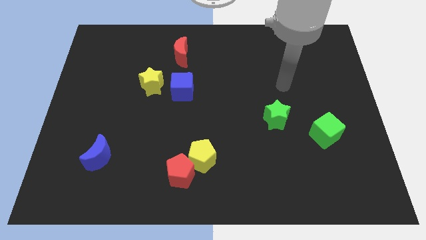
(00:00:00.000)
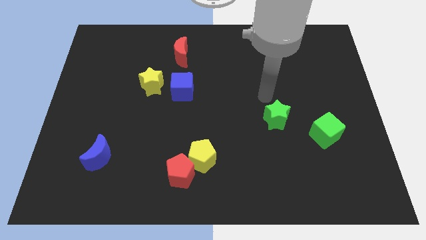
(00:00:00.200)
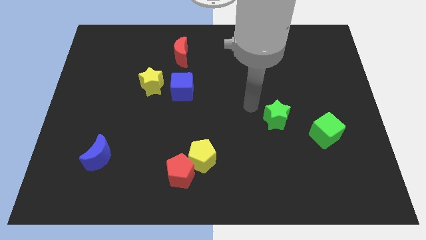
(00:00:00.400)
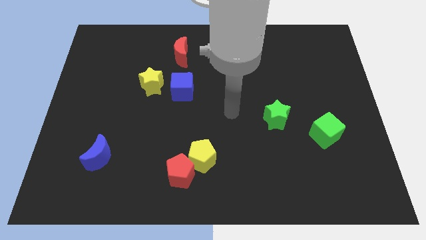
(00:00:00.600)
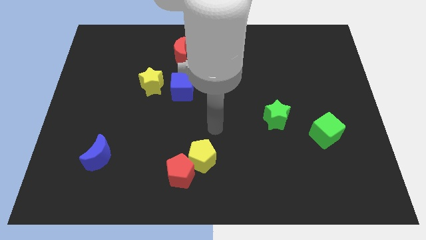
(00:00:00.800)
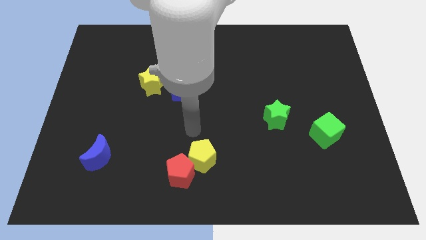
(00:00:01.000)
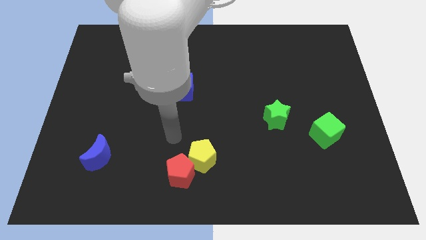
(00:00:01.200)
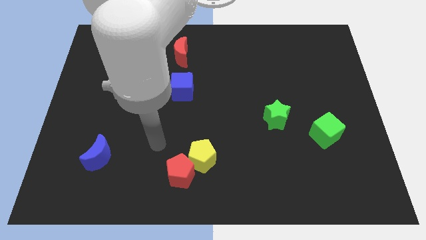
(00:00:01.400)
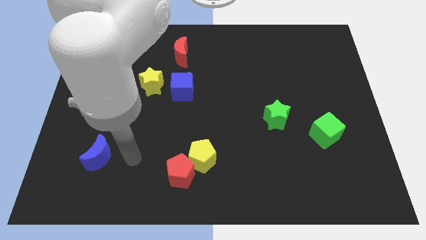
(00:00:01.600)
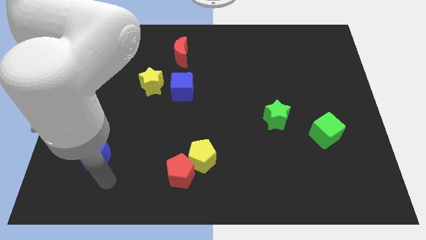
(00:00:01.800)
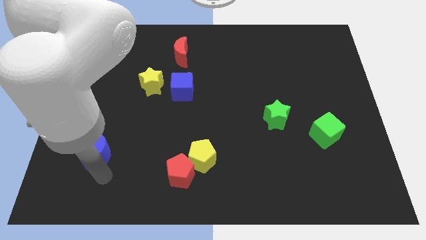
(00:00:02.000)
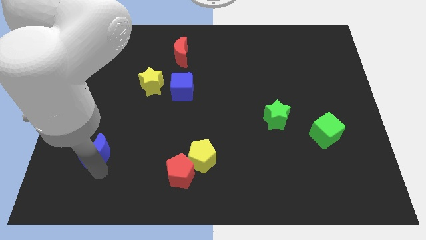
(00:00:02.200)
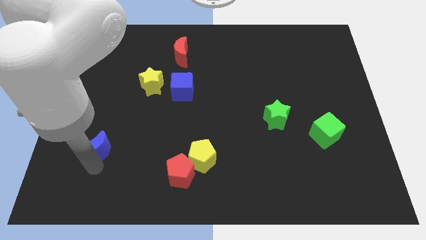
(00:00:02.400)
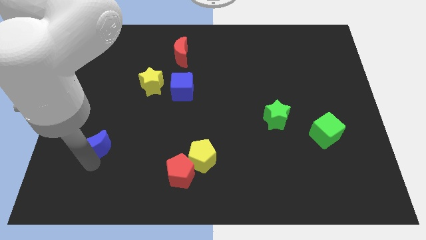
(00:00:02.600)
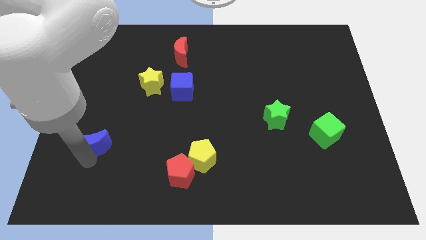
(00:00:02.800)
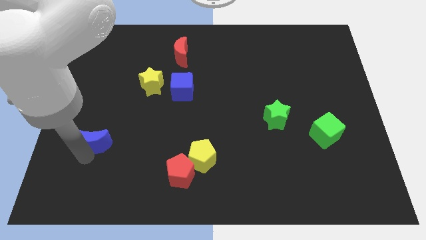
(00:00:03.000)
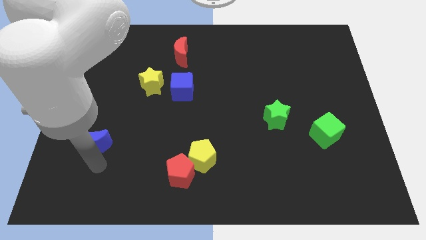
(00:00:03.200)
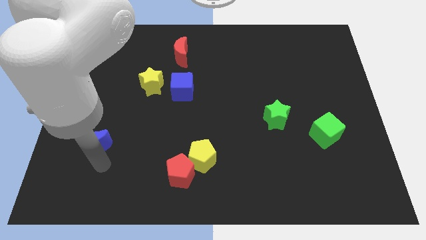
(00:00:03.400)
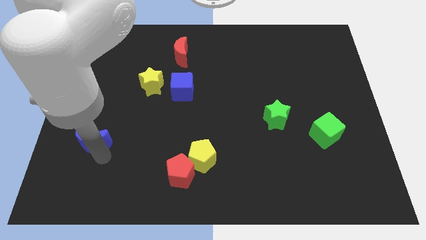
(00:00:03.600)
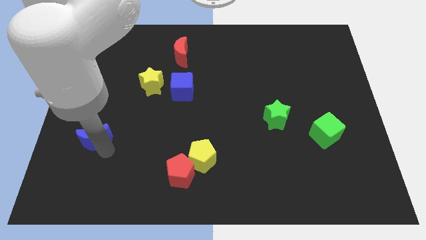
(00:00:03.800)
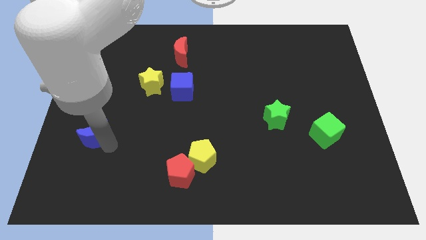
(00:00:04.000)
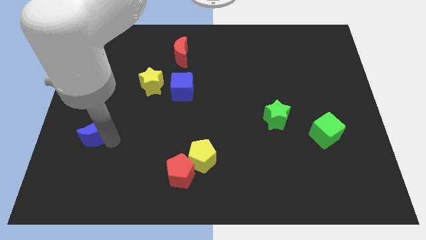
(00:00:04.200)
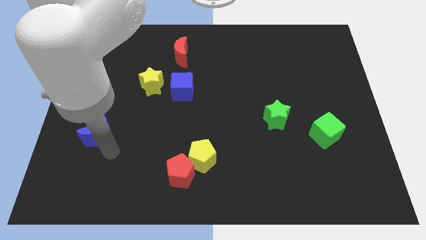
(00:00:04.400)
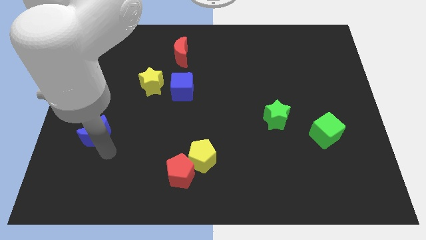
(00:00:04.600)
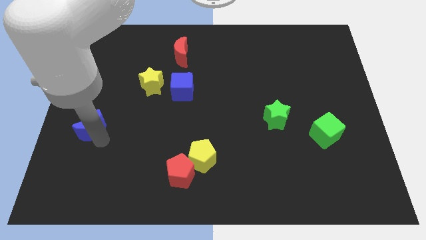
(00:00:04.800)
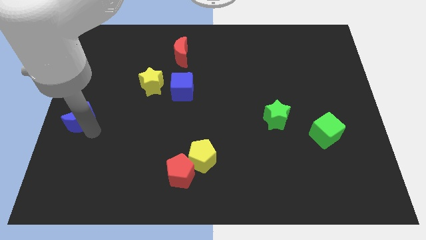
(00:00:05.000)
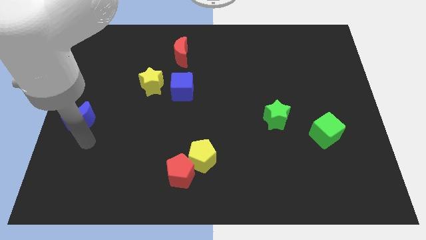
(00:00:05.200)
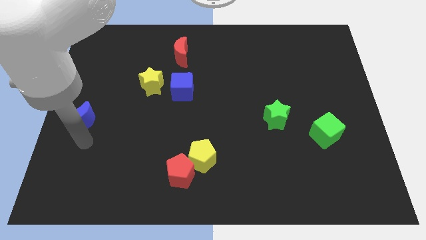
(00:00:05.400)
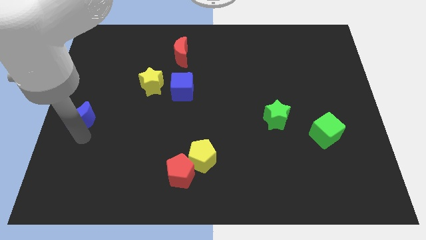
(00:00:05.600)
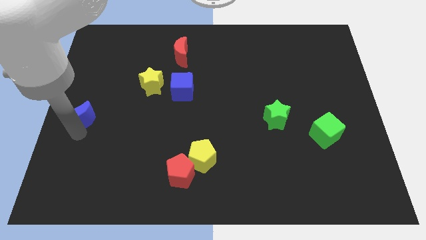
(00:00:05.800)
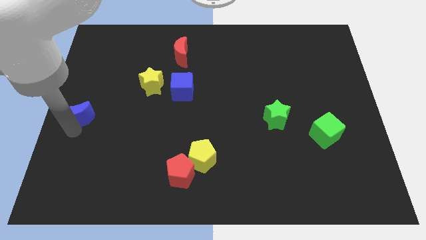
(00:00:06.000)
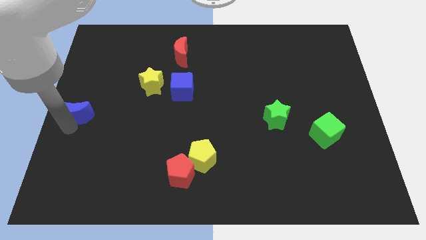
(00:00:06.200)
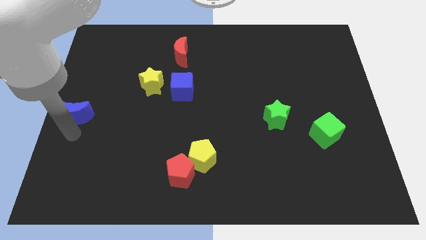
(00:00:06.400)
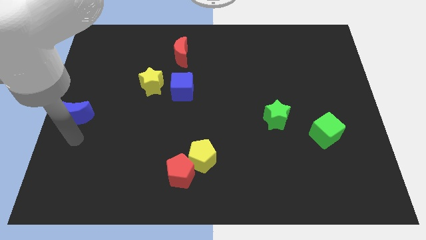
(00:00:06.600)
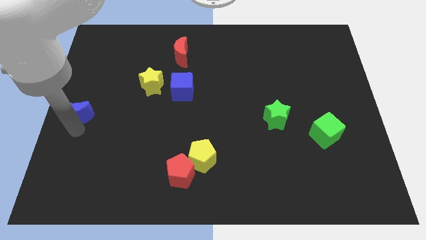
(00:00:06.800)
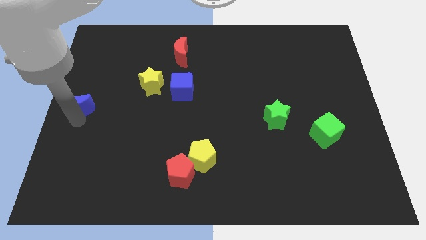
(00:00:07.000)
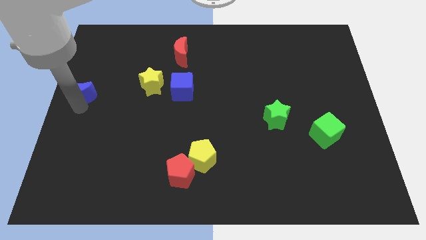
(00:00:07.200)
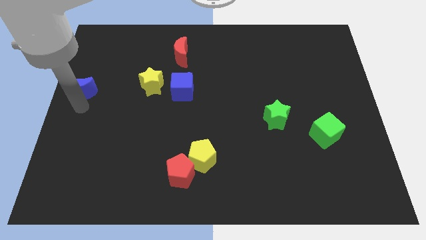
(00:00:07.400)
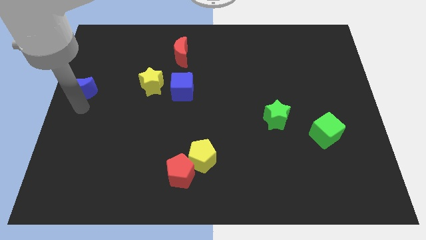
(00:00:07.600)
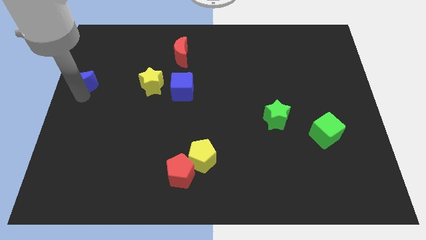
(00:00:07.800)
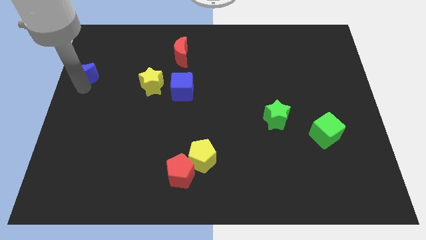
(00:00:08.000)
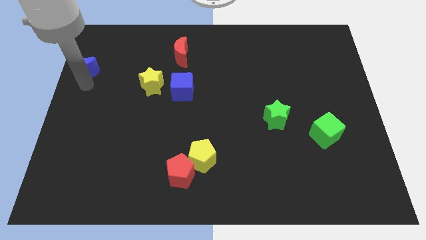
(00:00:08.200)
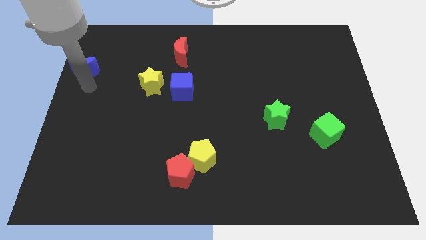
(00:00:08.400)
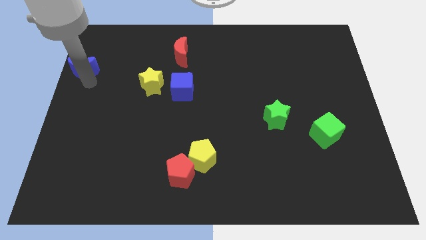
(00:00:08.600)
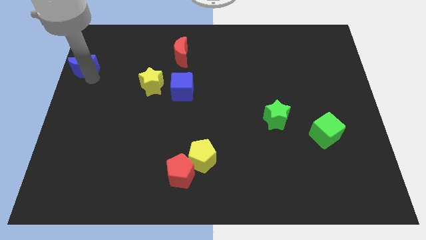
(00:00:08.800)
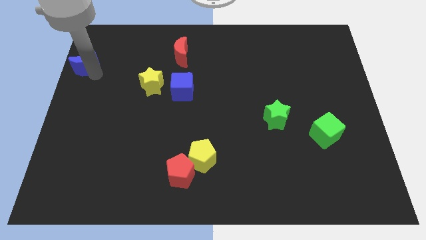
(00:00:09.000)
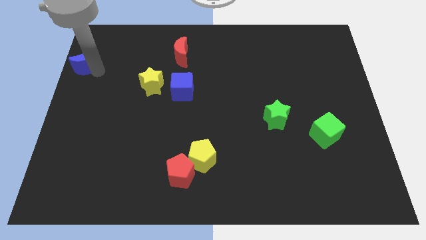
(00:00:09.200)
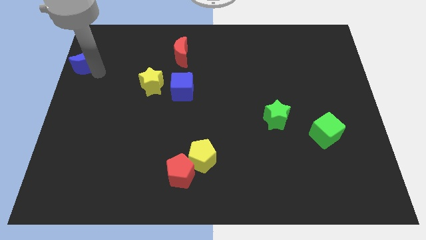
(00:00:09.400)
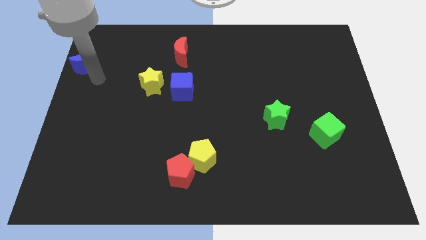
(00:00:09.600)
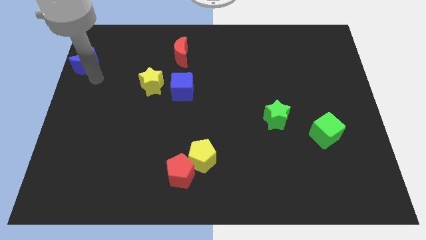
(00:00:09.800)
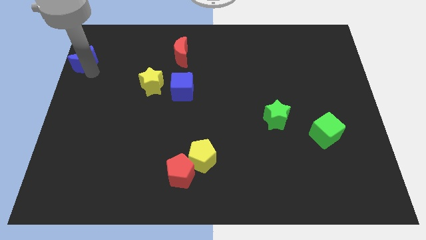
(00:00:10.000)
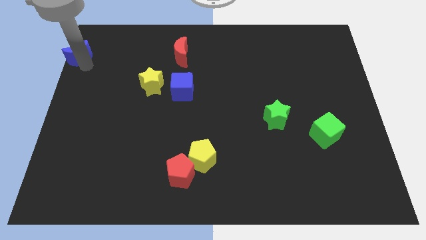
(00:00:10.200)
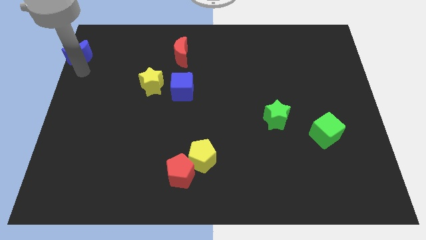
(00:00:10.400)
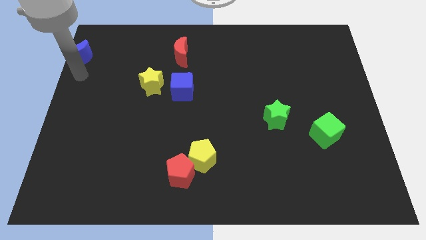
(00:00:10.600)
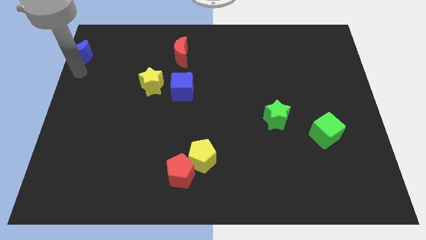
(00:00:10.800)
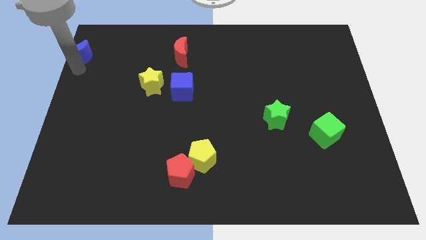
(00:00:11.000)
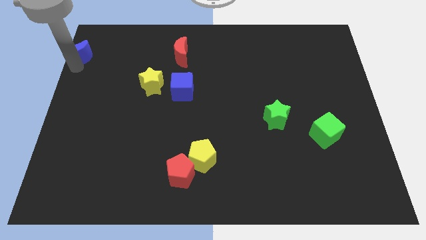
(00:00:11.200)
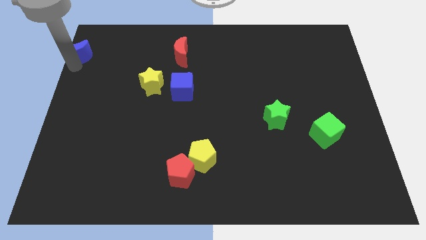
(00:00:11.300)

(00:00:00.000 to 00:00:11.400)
slide the blue moon to the top left of the board
